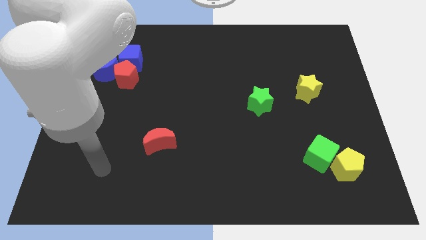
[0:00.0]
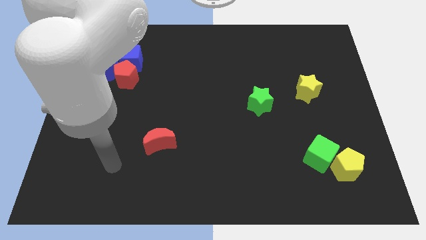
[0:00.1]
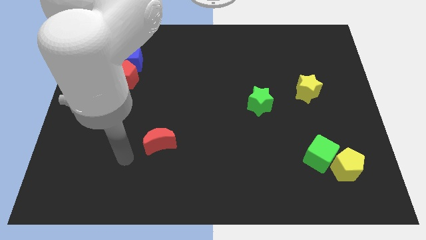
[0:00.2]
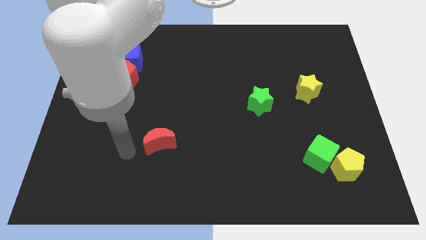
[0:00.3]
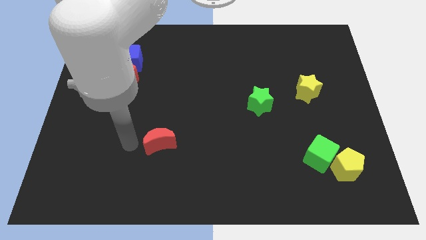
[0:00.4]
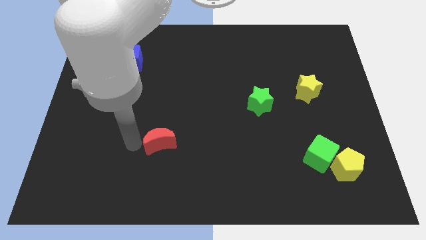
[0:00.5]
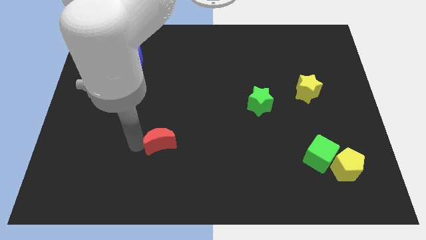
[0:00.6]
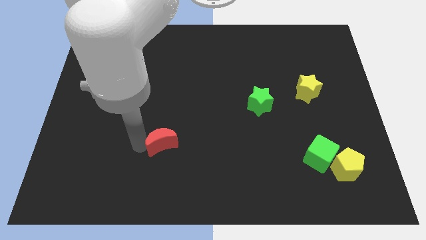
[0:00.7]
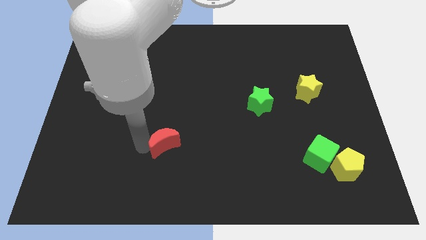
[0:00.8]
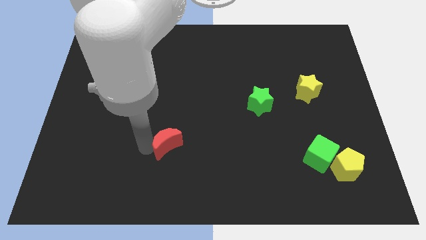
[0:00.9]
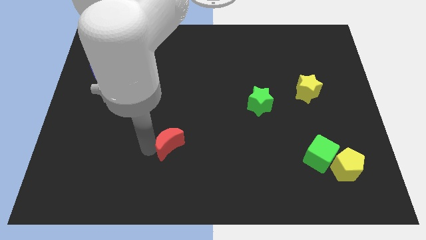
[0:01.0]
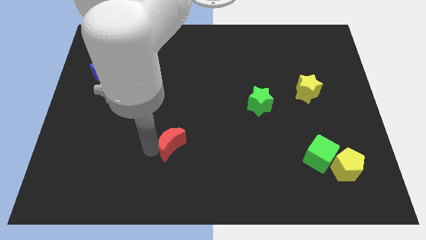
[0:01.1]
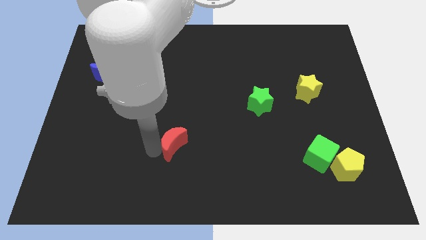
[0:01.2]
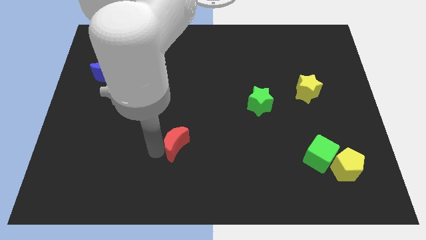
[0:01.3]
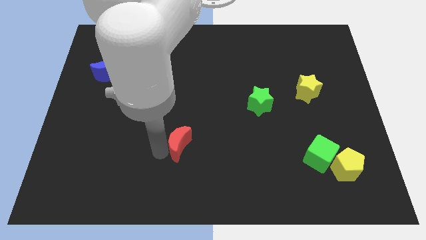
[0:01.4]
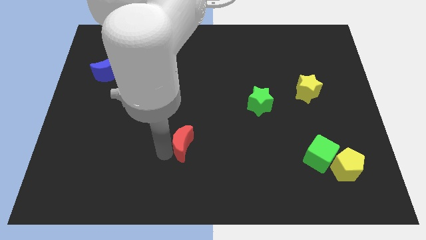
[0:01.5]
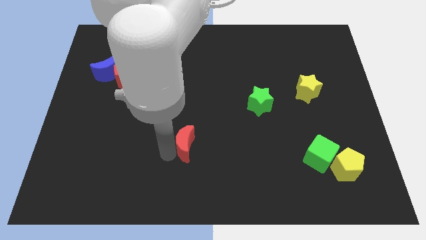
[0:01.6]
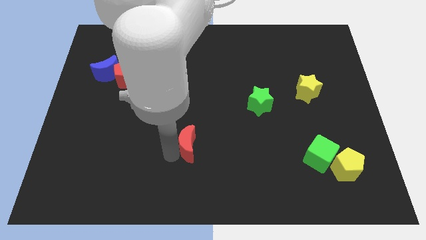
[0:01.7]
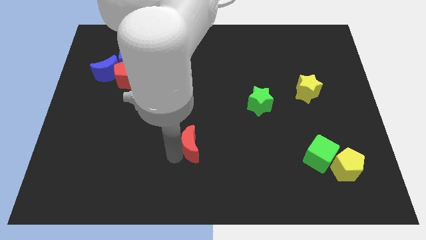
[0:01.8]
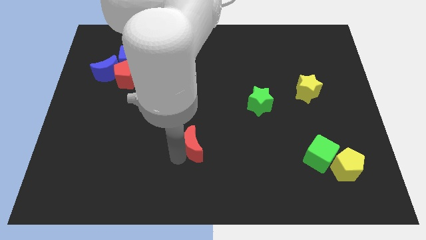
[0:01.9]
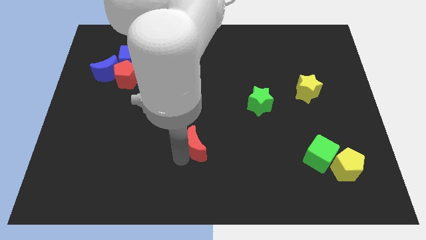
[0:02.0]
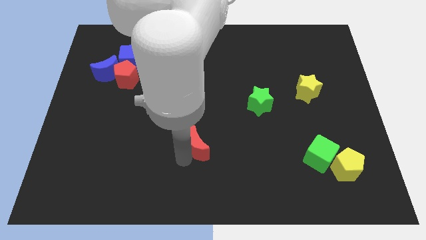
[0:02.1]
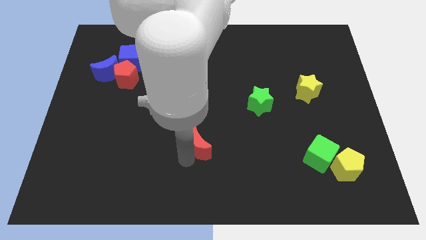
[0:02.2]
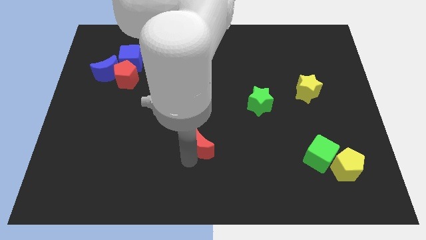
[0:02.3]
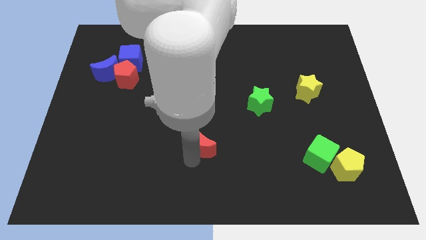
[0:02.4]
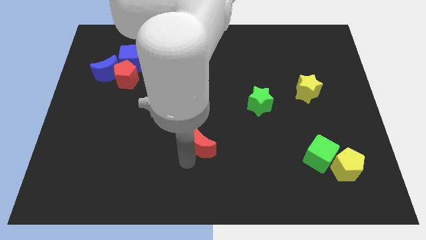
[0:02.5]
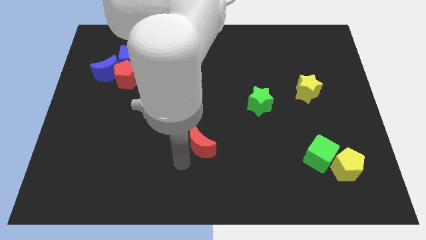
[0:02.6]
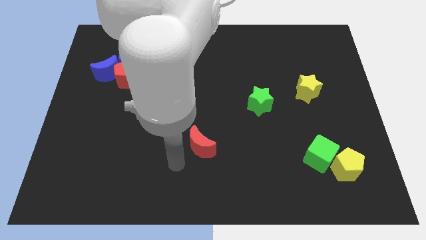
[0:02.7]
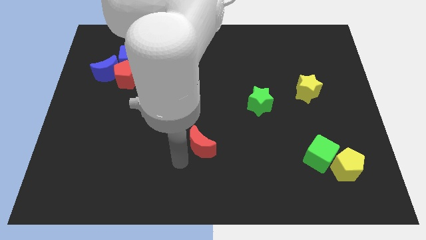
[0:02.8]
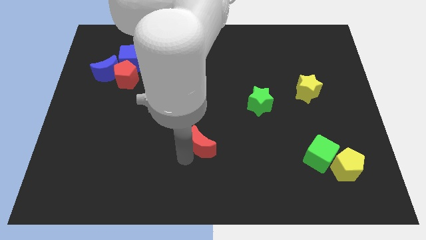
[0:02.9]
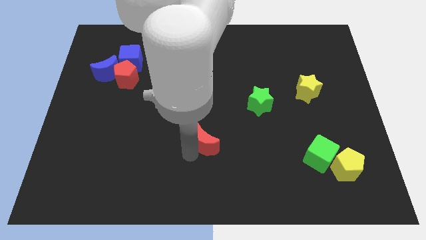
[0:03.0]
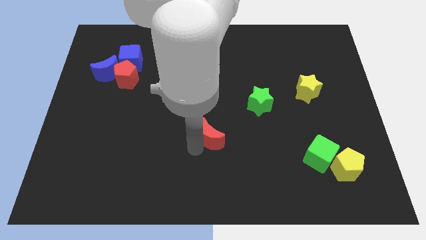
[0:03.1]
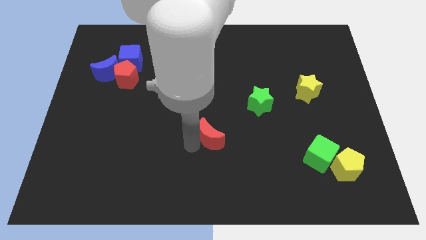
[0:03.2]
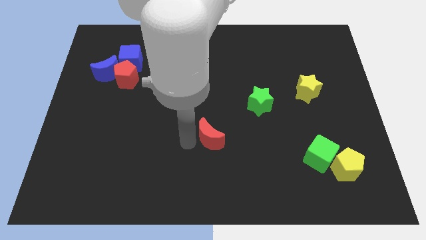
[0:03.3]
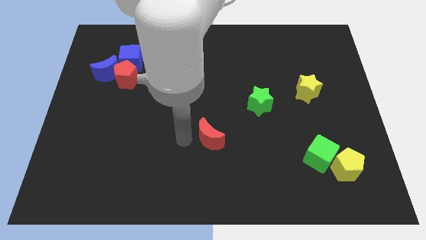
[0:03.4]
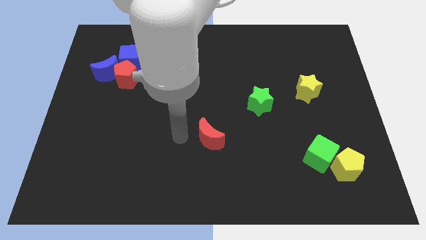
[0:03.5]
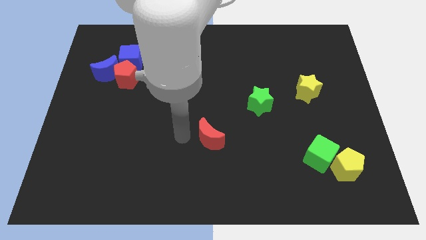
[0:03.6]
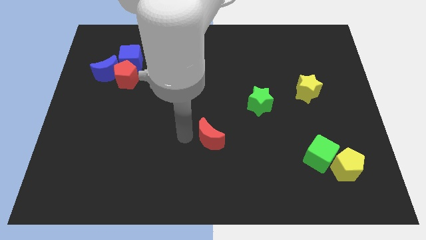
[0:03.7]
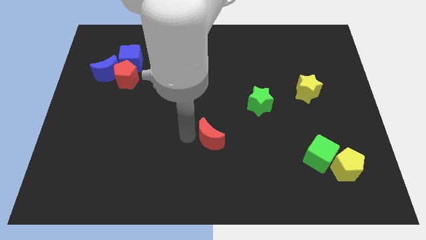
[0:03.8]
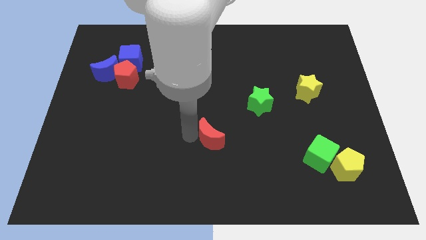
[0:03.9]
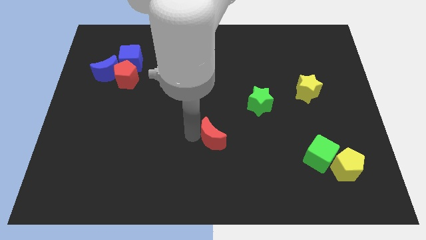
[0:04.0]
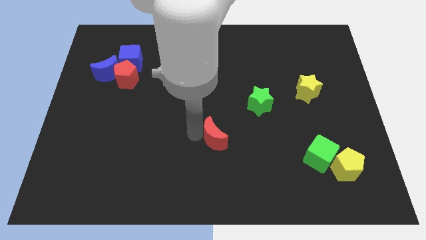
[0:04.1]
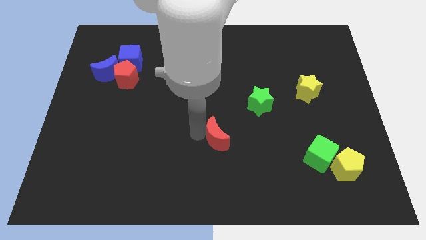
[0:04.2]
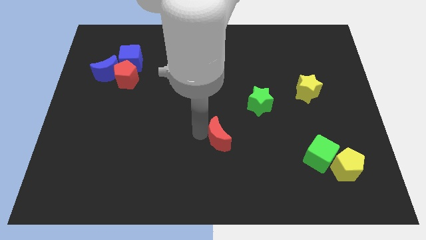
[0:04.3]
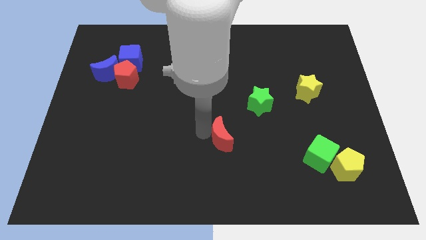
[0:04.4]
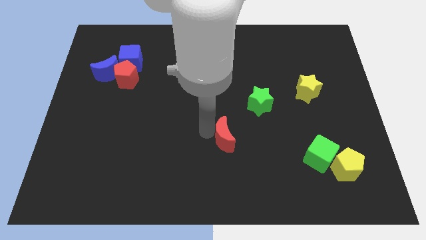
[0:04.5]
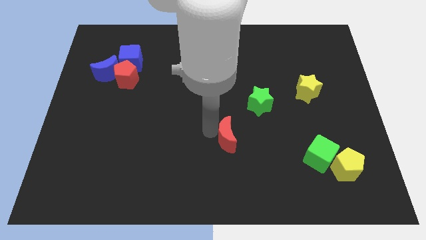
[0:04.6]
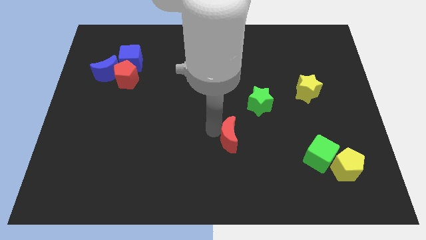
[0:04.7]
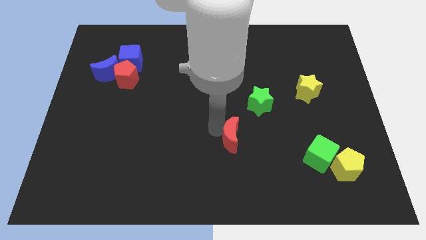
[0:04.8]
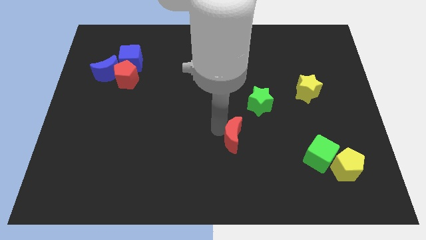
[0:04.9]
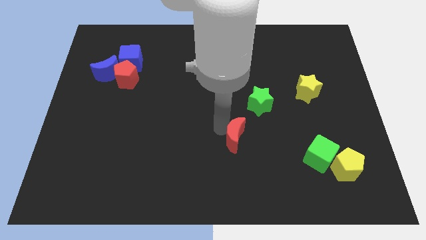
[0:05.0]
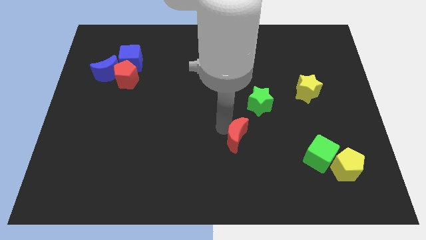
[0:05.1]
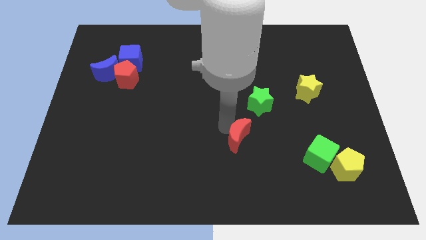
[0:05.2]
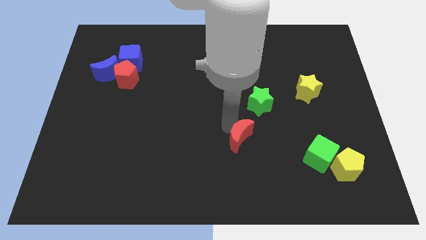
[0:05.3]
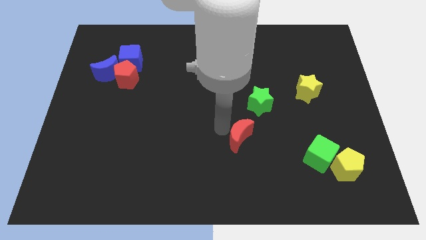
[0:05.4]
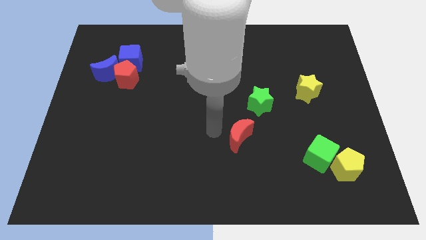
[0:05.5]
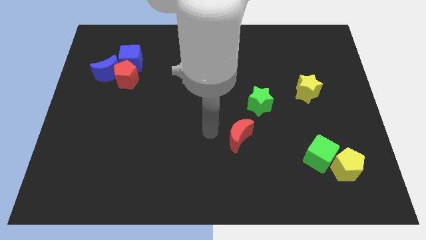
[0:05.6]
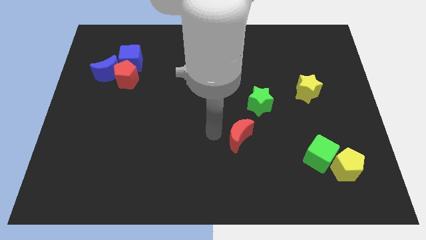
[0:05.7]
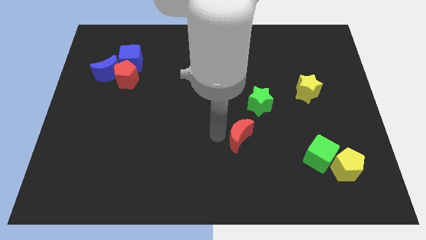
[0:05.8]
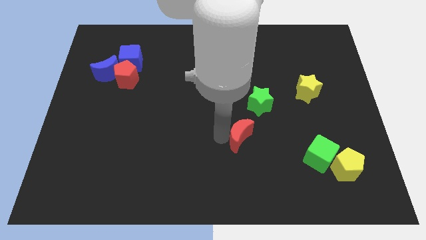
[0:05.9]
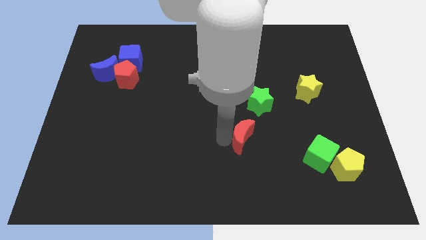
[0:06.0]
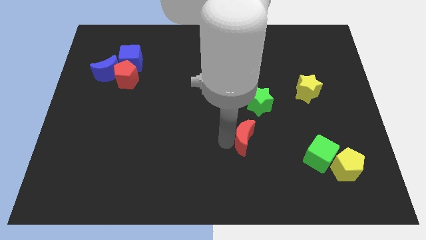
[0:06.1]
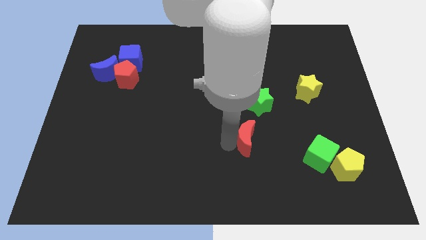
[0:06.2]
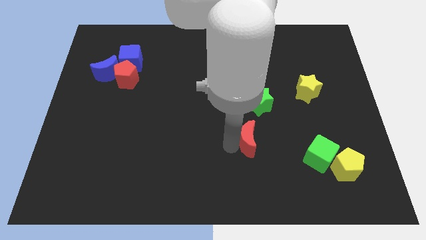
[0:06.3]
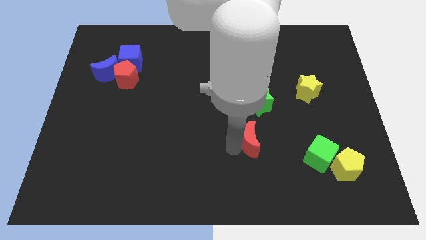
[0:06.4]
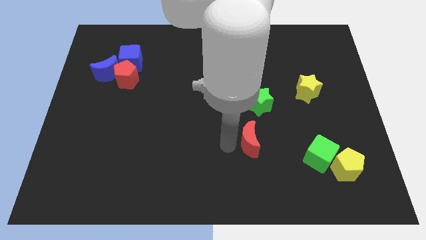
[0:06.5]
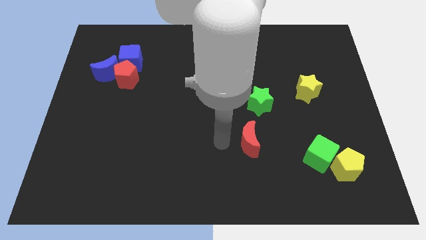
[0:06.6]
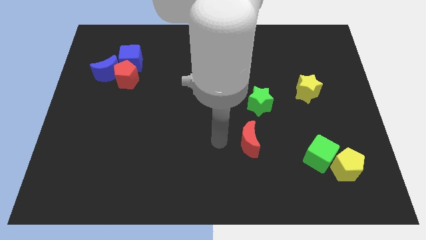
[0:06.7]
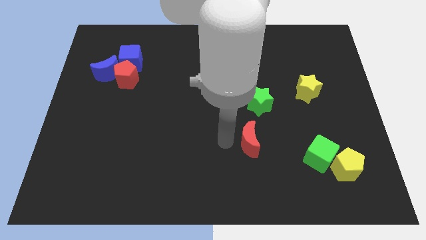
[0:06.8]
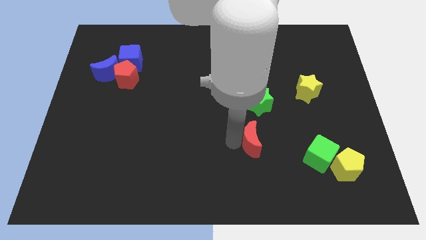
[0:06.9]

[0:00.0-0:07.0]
slide the red moon right

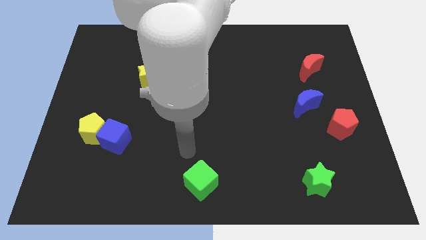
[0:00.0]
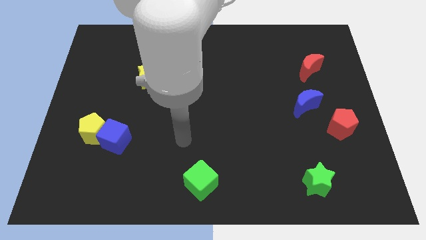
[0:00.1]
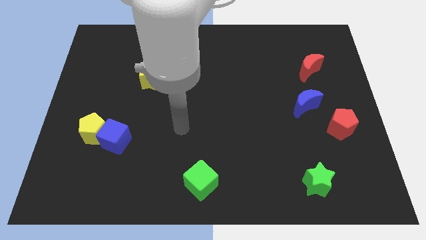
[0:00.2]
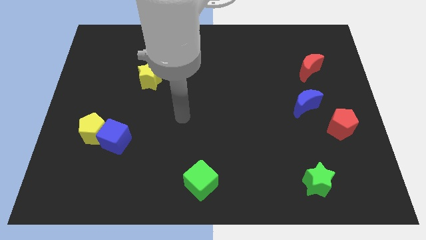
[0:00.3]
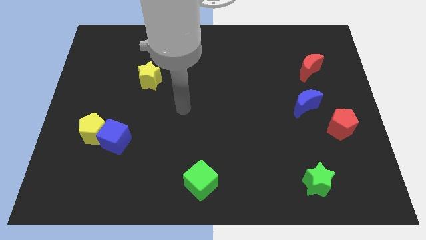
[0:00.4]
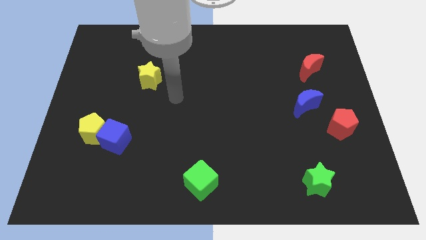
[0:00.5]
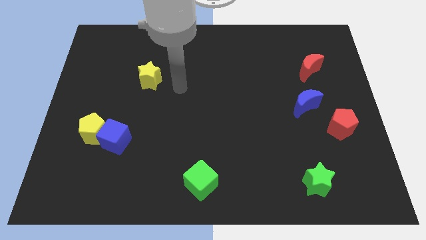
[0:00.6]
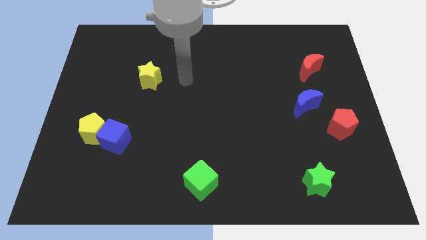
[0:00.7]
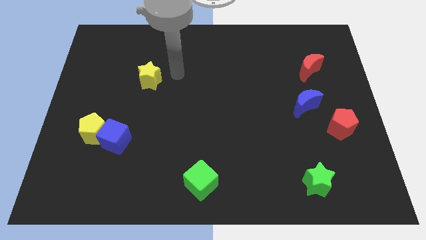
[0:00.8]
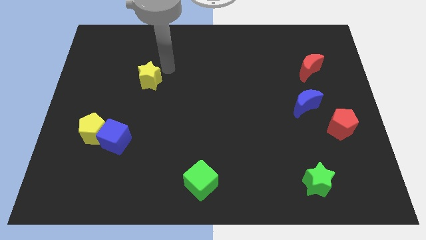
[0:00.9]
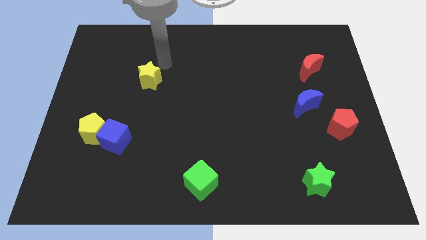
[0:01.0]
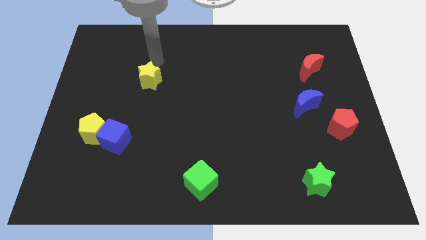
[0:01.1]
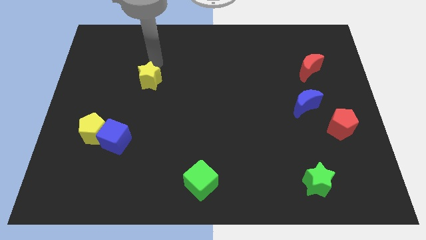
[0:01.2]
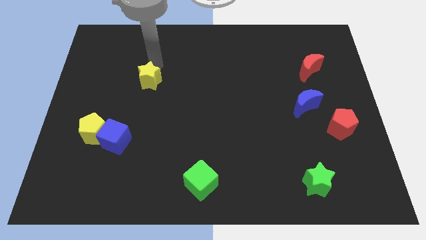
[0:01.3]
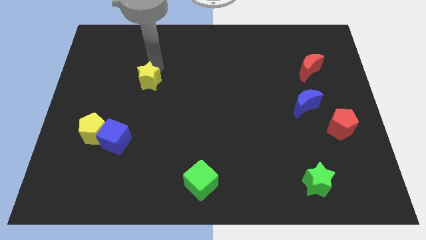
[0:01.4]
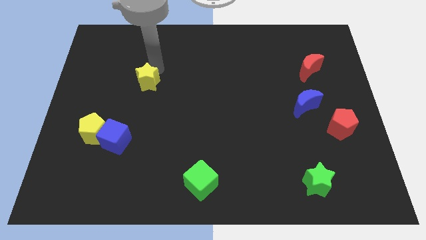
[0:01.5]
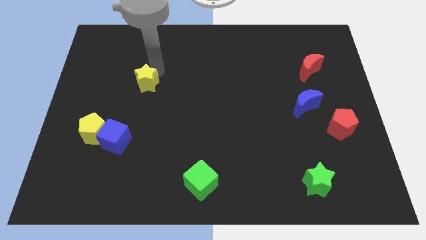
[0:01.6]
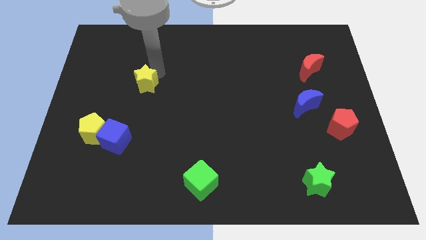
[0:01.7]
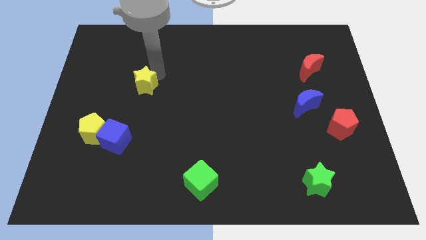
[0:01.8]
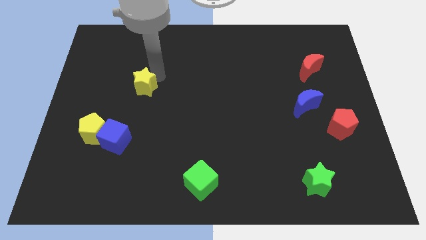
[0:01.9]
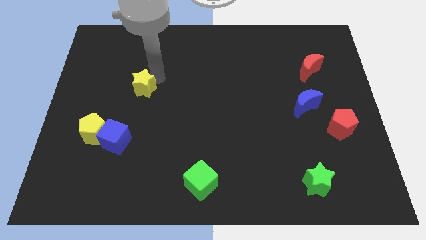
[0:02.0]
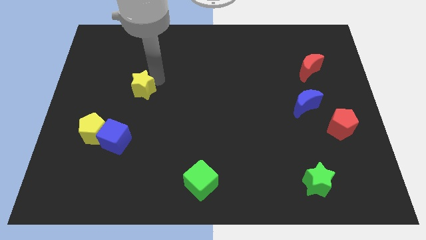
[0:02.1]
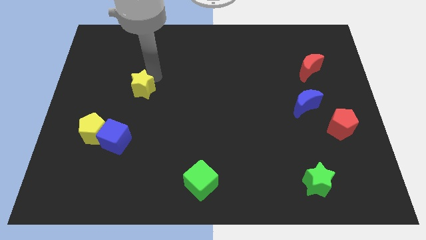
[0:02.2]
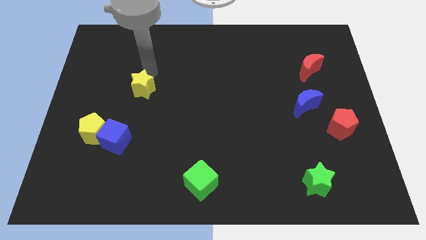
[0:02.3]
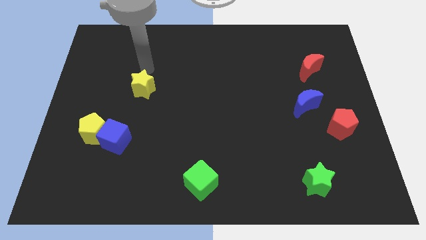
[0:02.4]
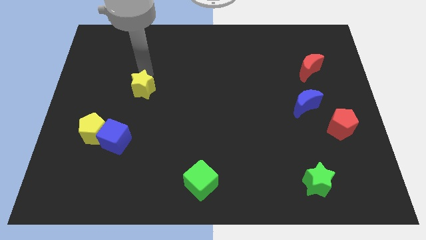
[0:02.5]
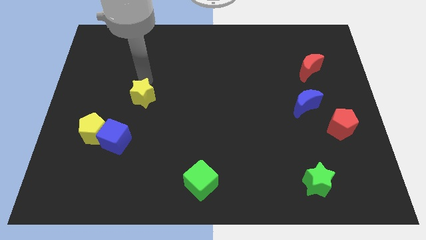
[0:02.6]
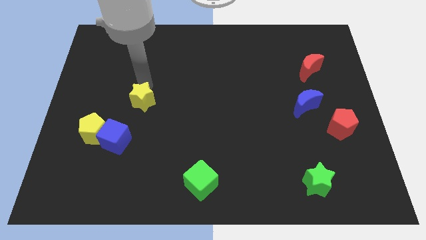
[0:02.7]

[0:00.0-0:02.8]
slightly slide the yellow star down
